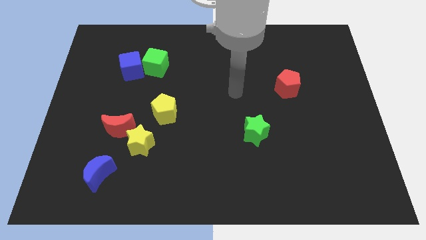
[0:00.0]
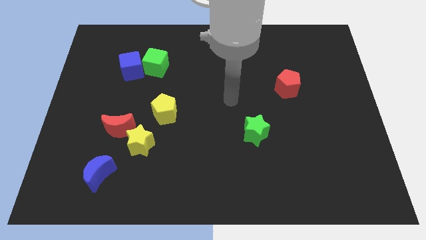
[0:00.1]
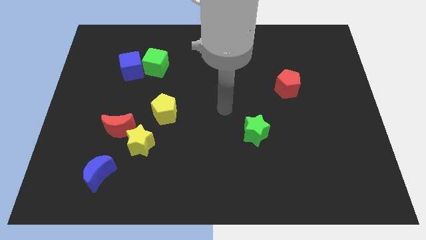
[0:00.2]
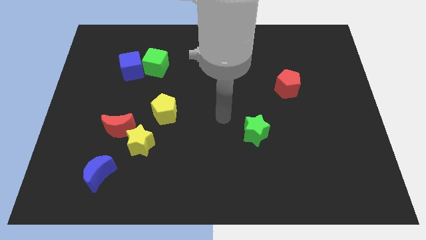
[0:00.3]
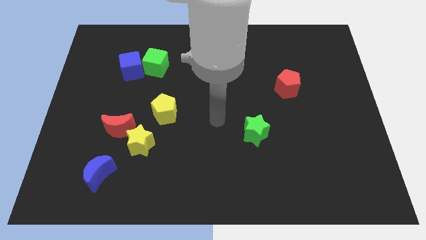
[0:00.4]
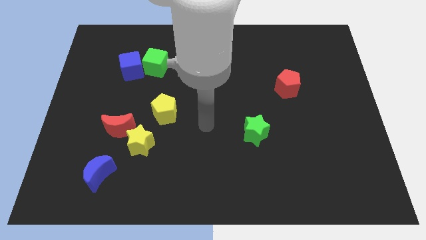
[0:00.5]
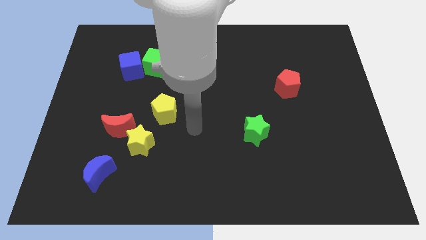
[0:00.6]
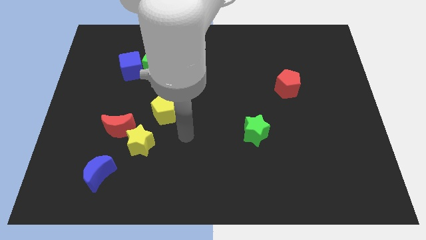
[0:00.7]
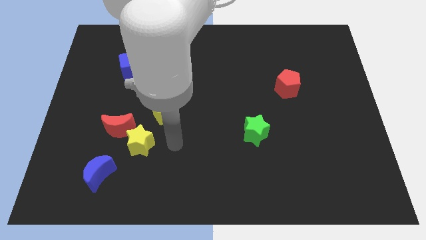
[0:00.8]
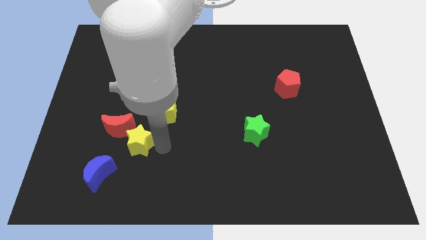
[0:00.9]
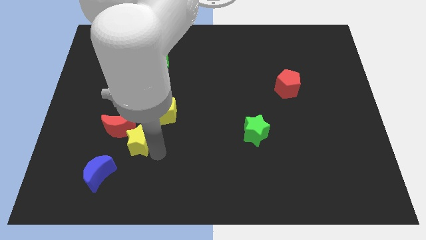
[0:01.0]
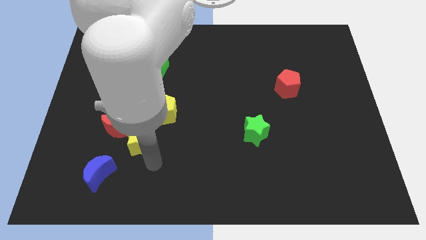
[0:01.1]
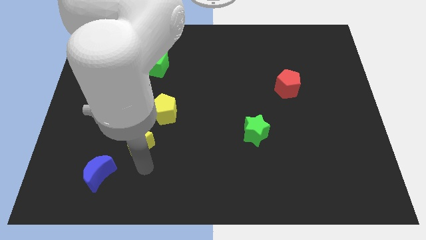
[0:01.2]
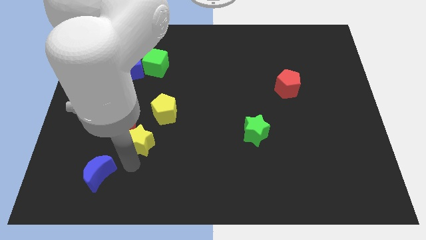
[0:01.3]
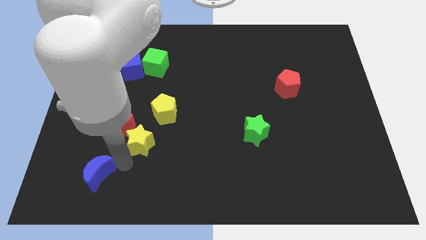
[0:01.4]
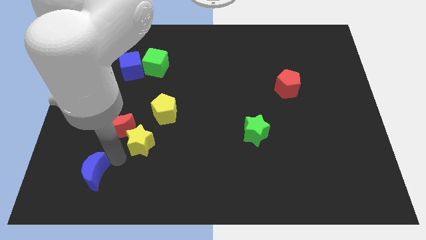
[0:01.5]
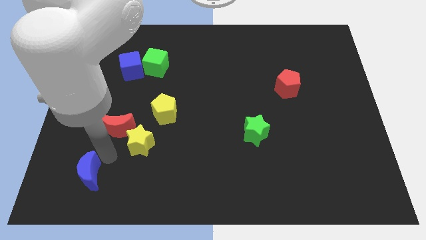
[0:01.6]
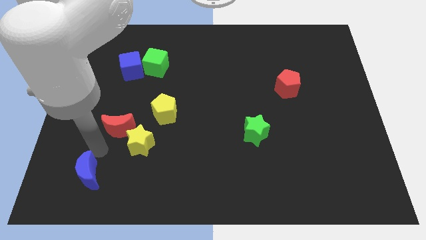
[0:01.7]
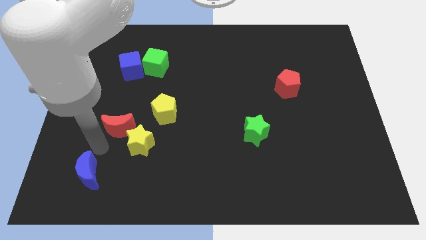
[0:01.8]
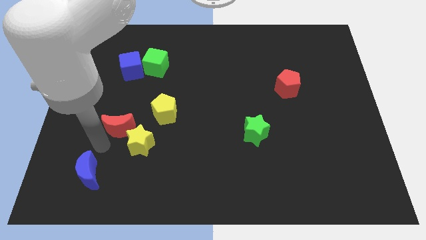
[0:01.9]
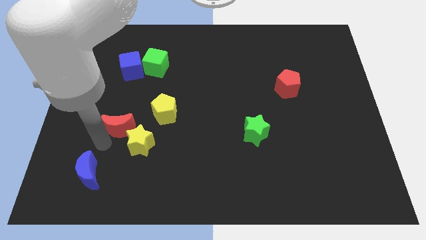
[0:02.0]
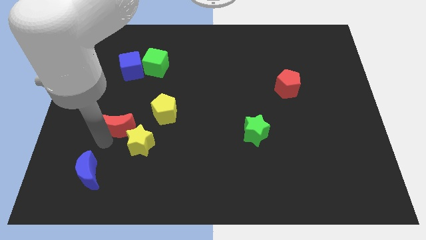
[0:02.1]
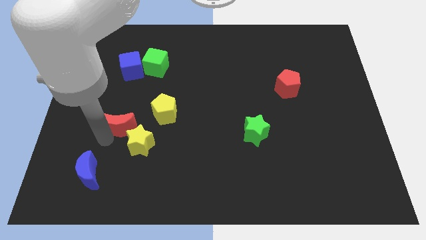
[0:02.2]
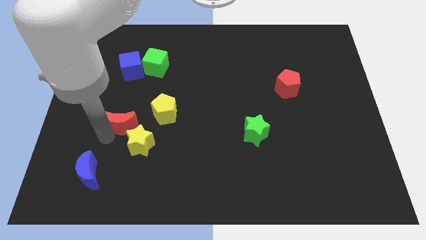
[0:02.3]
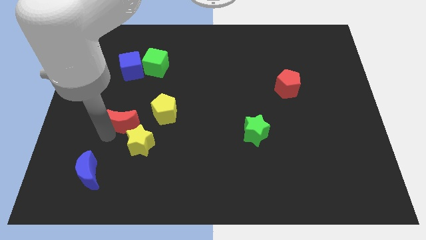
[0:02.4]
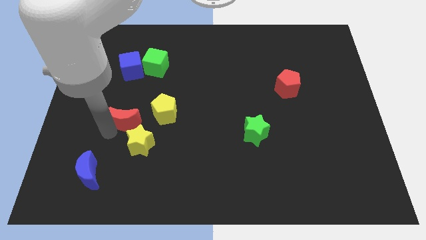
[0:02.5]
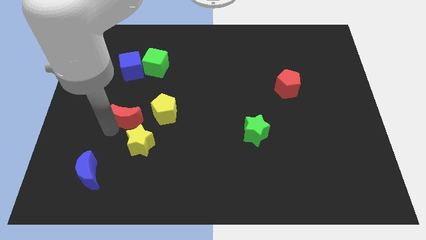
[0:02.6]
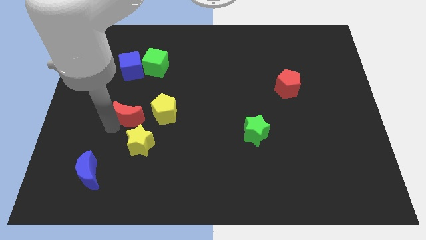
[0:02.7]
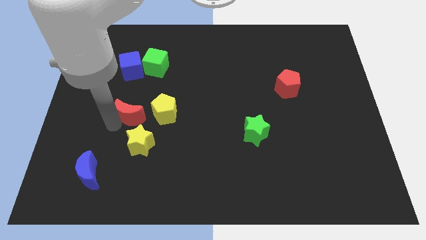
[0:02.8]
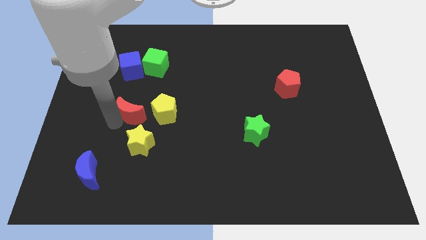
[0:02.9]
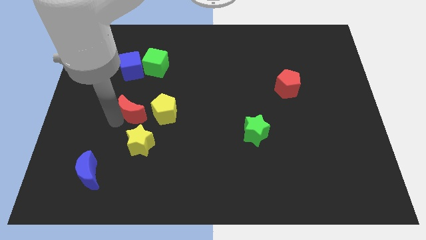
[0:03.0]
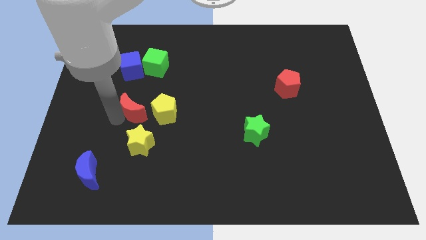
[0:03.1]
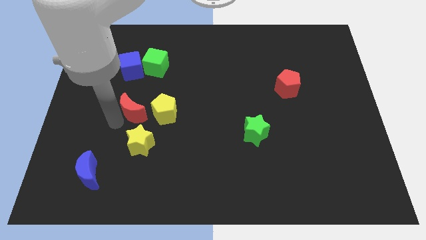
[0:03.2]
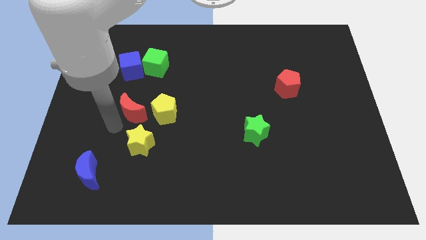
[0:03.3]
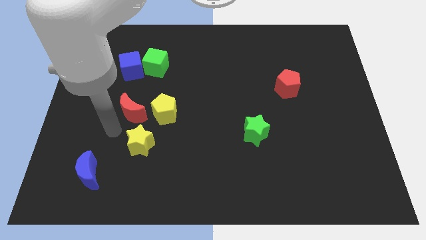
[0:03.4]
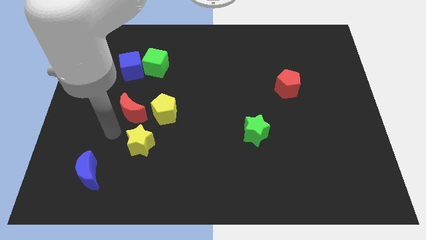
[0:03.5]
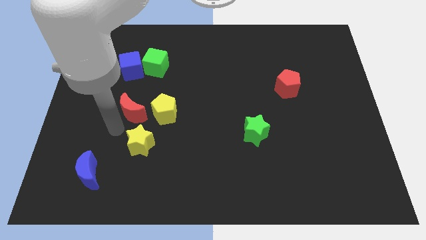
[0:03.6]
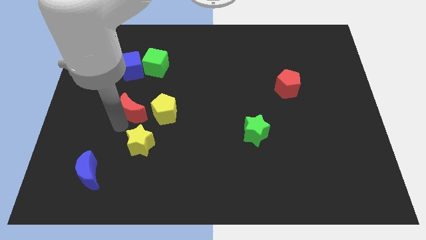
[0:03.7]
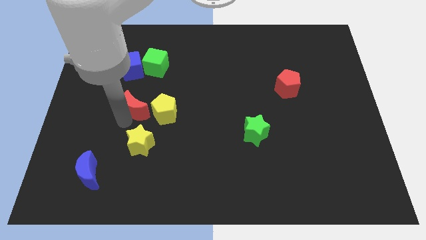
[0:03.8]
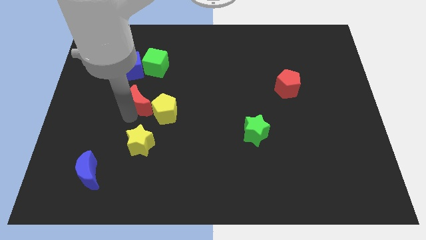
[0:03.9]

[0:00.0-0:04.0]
slightly push the red moon up and then to the right

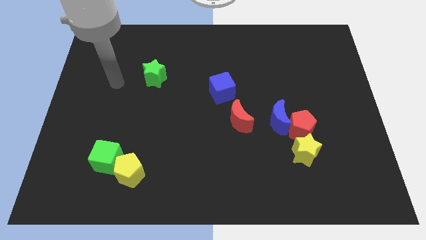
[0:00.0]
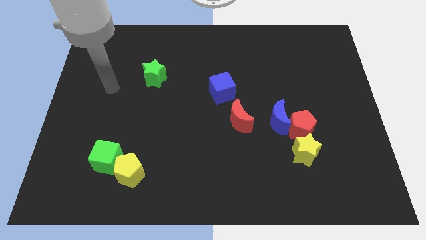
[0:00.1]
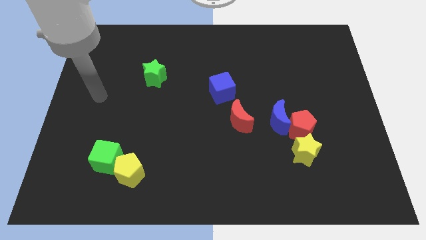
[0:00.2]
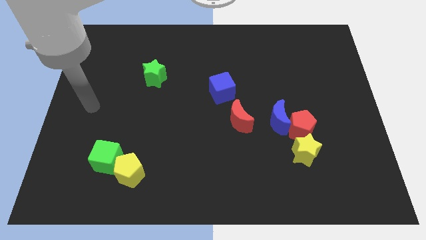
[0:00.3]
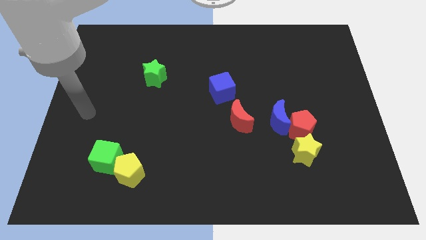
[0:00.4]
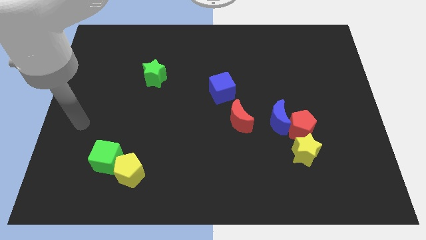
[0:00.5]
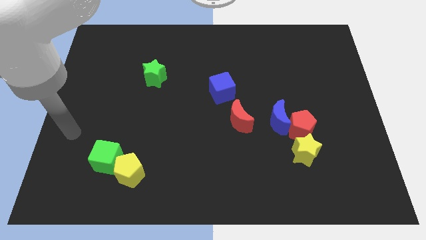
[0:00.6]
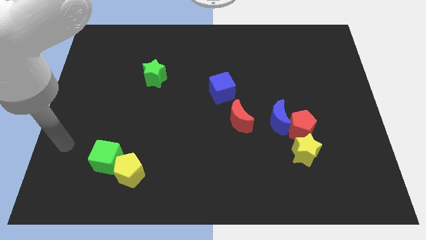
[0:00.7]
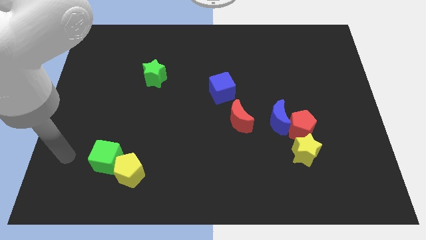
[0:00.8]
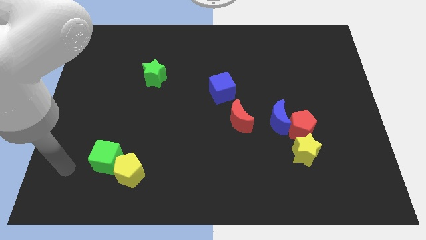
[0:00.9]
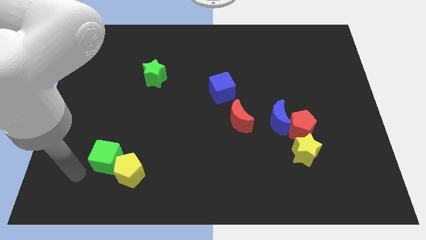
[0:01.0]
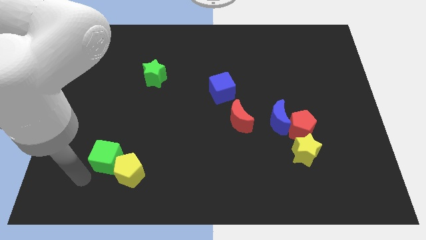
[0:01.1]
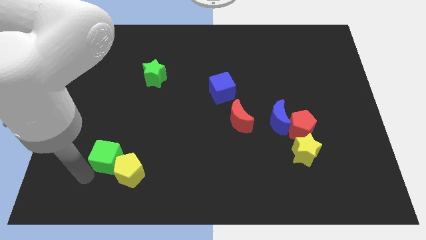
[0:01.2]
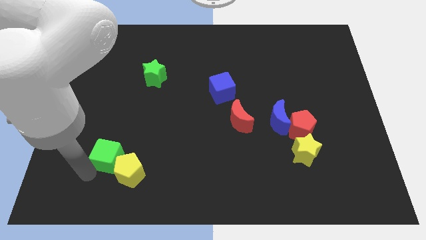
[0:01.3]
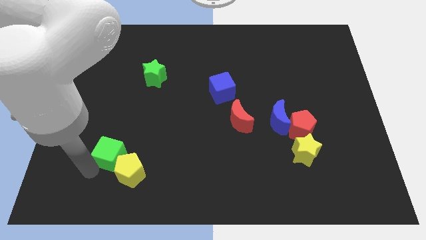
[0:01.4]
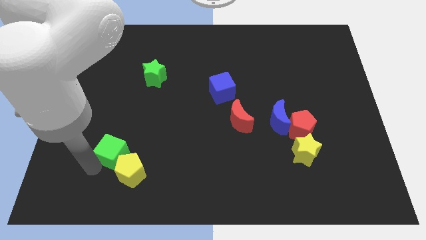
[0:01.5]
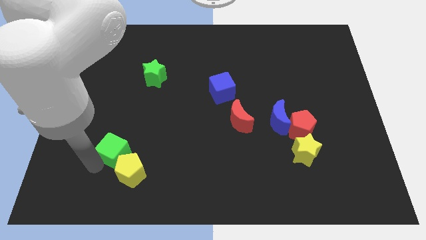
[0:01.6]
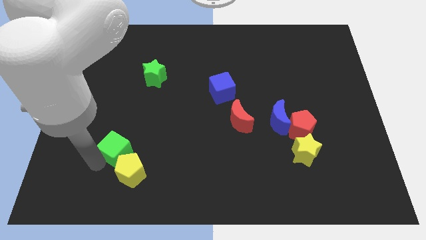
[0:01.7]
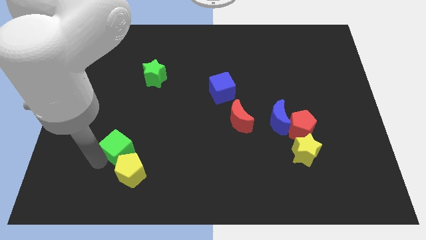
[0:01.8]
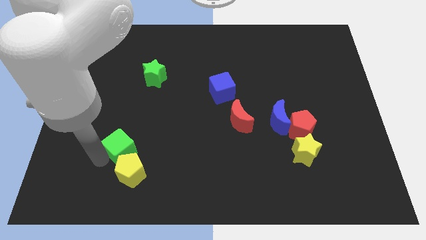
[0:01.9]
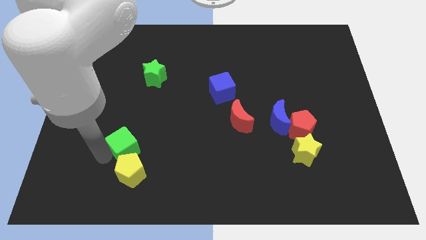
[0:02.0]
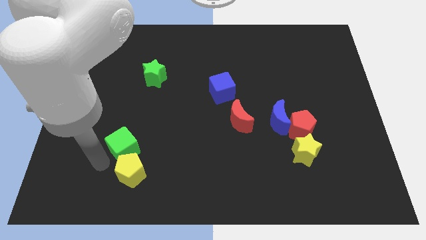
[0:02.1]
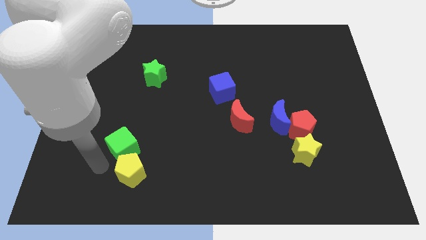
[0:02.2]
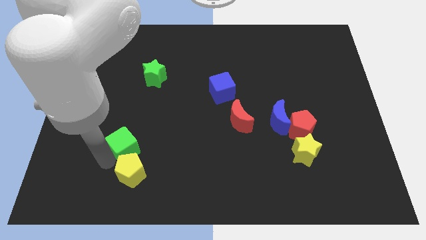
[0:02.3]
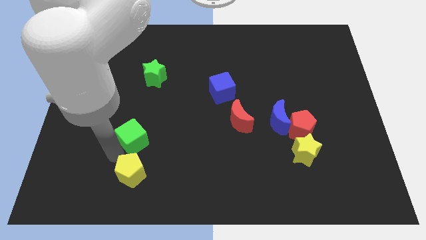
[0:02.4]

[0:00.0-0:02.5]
slide the green cube a little upwards and then right

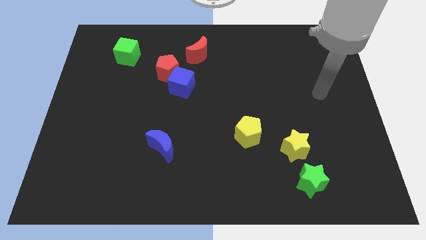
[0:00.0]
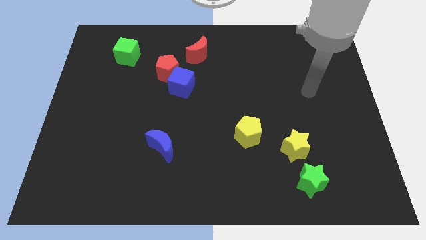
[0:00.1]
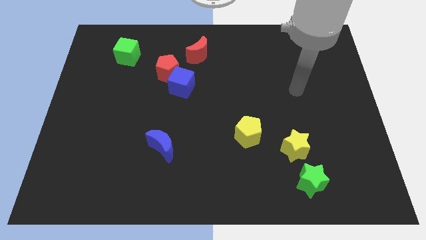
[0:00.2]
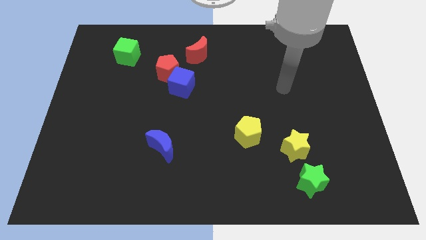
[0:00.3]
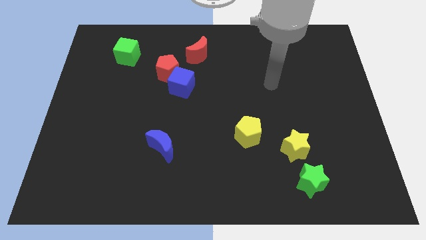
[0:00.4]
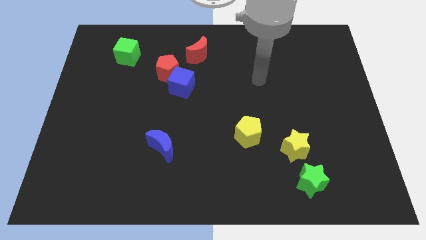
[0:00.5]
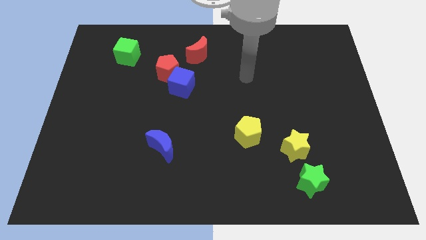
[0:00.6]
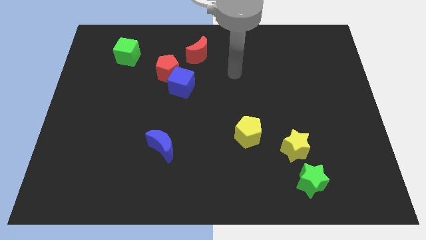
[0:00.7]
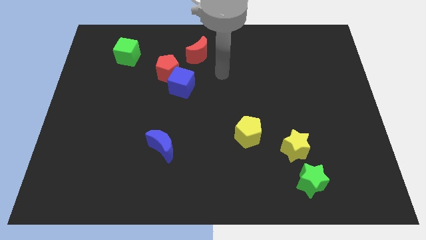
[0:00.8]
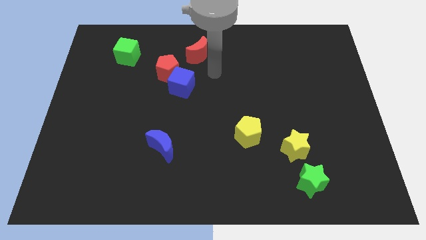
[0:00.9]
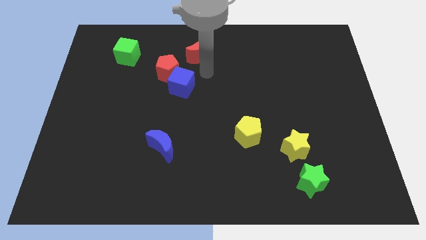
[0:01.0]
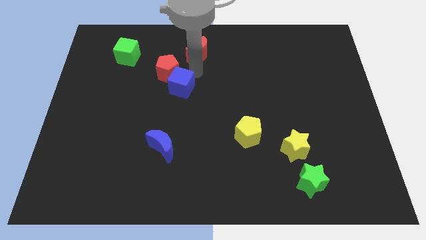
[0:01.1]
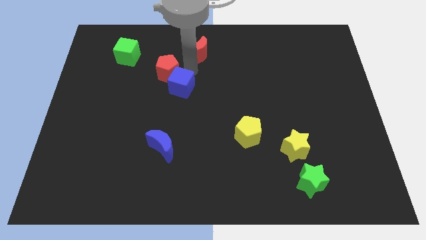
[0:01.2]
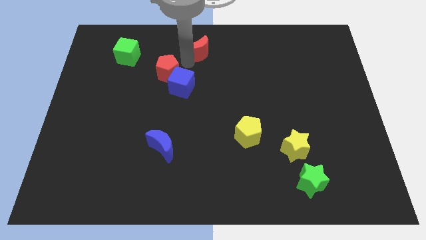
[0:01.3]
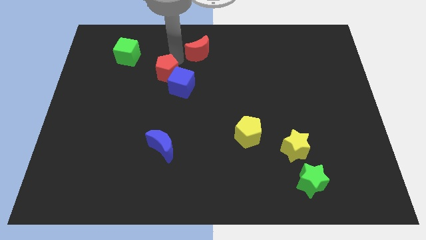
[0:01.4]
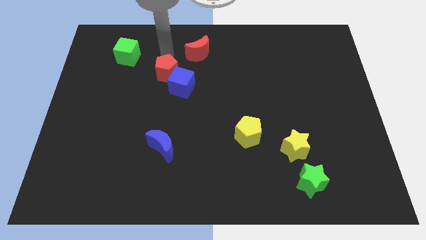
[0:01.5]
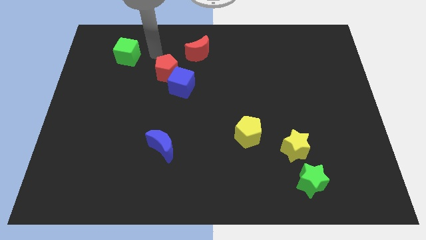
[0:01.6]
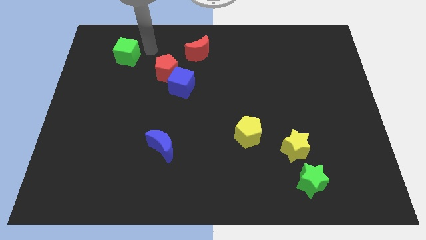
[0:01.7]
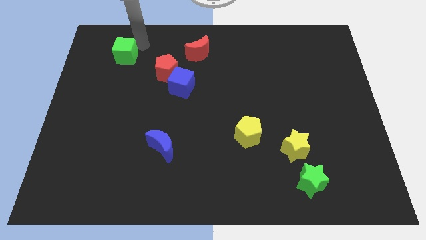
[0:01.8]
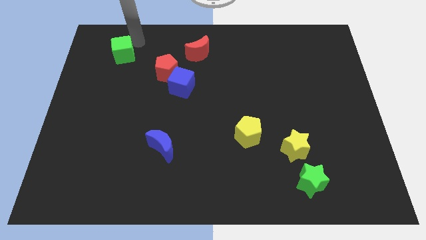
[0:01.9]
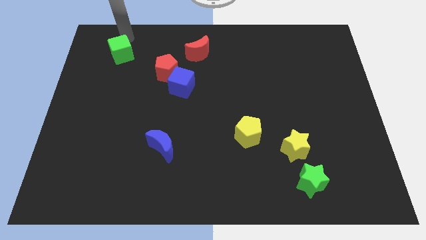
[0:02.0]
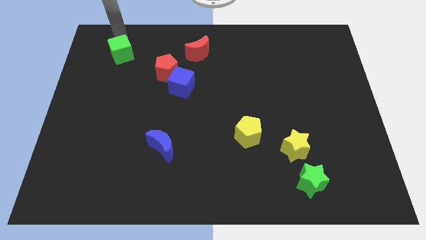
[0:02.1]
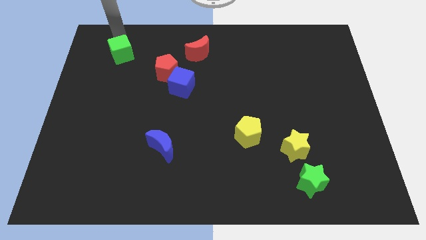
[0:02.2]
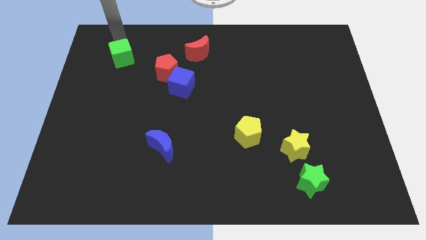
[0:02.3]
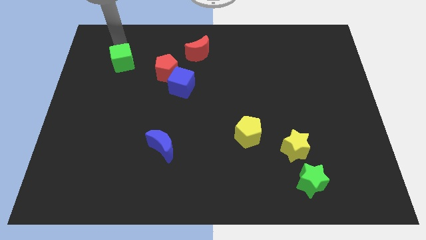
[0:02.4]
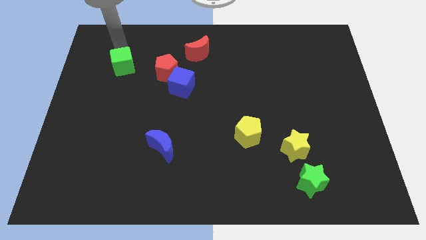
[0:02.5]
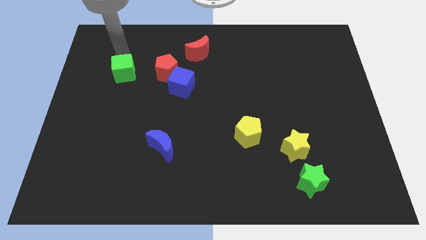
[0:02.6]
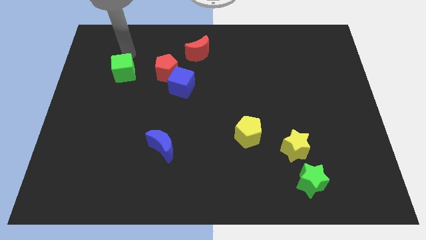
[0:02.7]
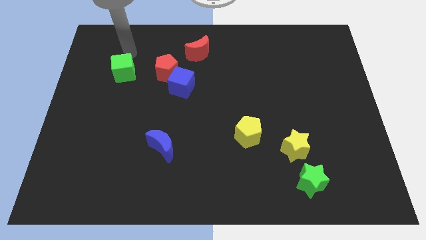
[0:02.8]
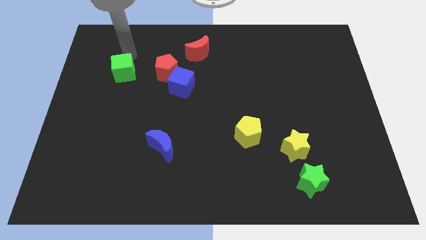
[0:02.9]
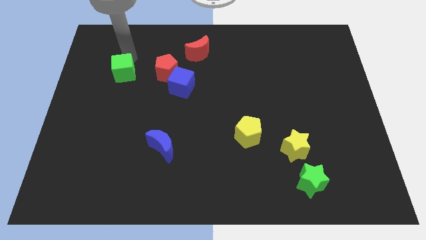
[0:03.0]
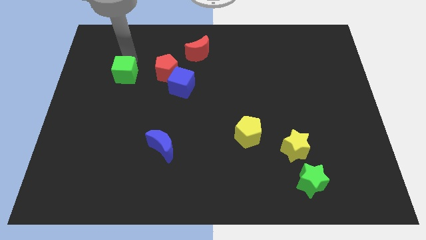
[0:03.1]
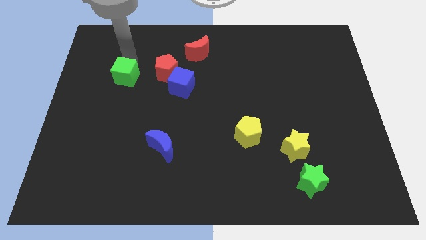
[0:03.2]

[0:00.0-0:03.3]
move the green cube down a bit
